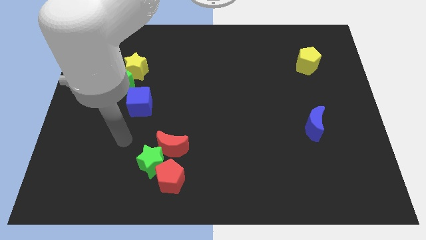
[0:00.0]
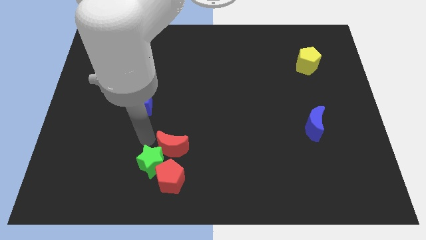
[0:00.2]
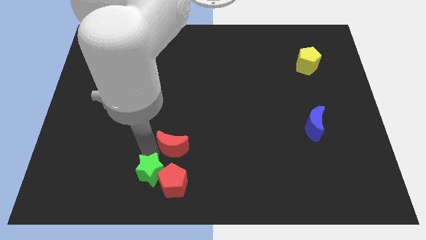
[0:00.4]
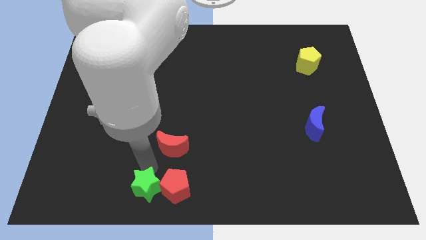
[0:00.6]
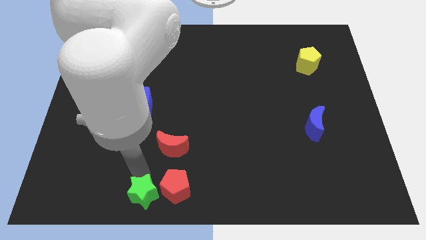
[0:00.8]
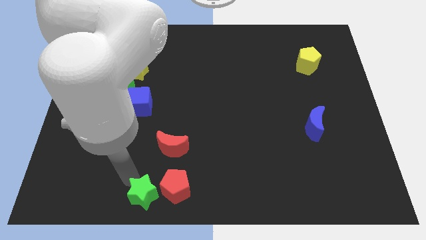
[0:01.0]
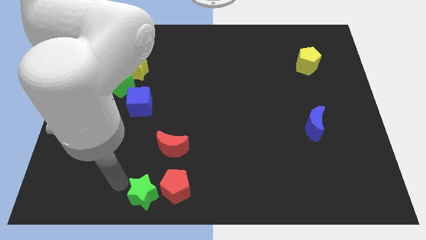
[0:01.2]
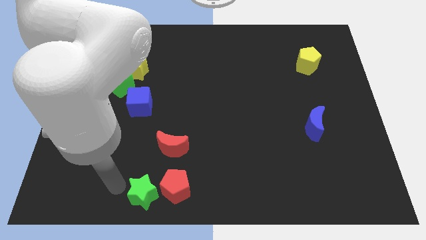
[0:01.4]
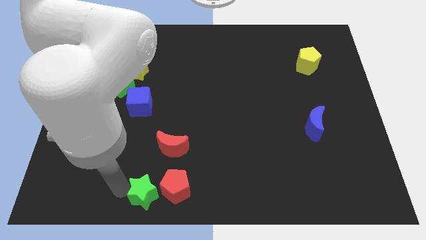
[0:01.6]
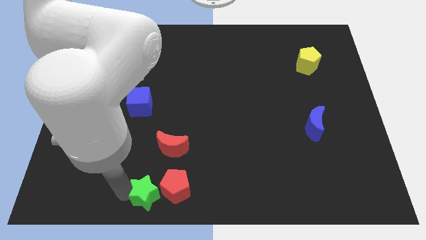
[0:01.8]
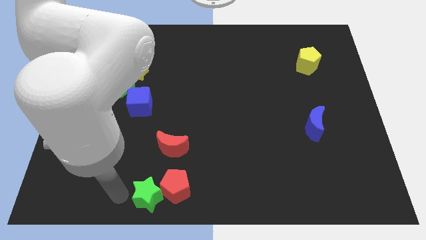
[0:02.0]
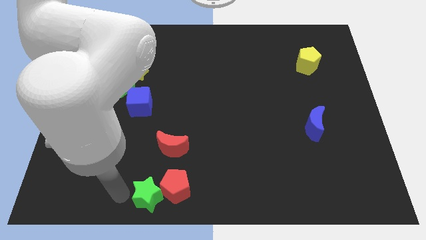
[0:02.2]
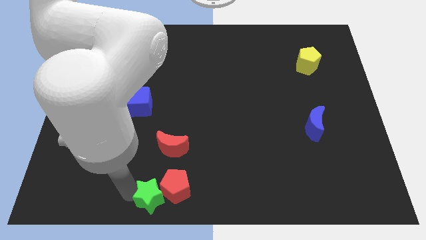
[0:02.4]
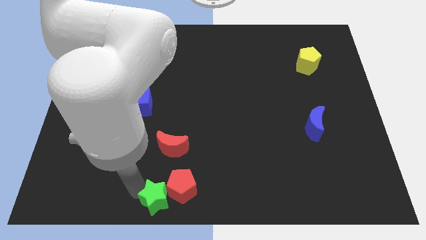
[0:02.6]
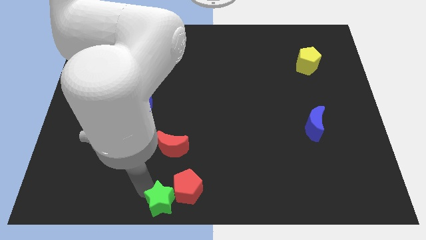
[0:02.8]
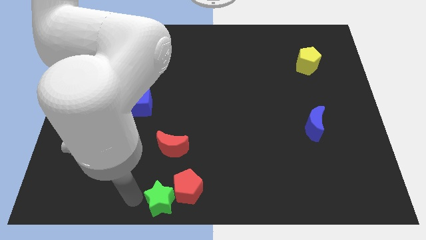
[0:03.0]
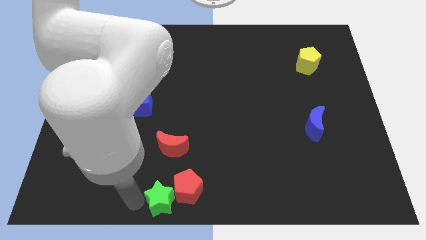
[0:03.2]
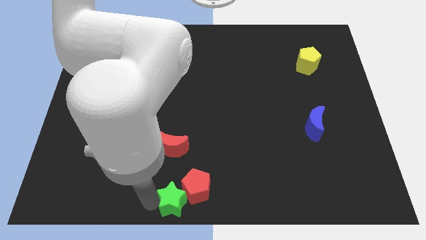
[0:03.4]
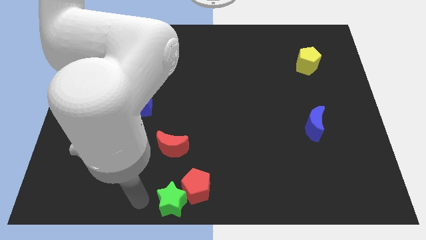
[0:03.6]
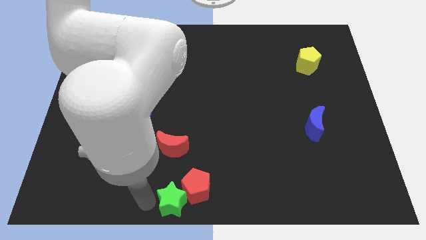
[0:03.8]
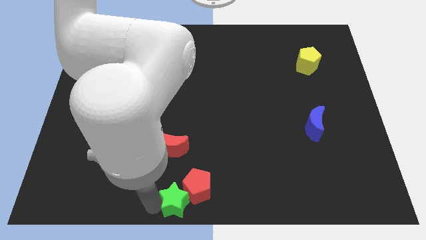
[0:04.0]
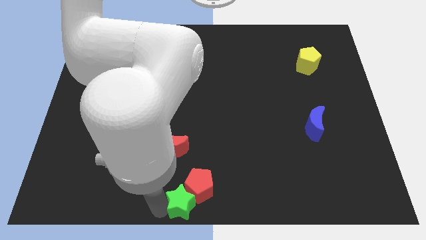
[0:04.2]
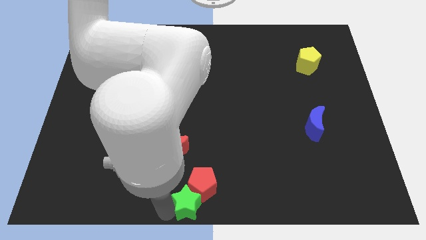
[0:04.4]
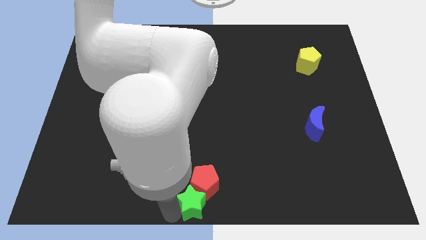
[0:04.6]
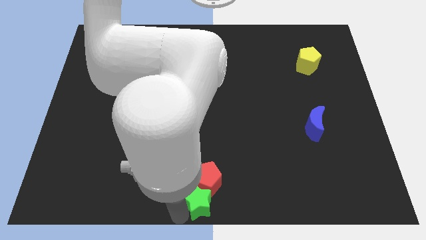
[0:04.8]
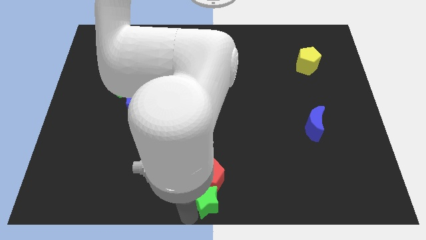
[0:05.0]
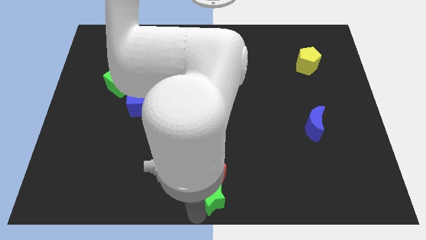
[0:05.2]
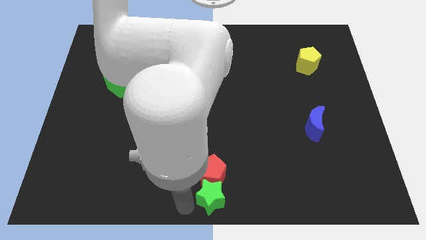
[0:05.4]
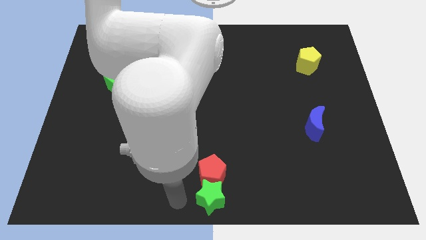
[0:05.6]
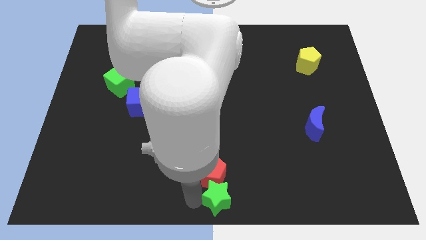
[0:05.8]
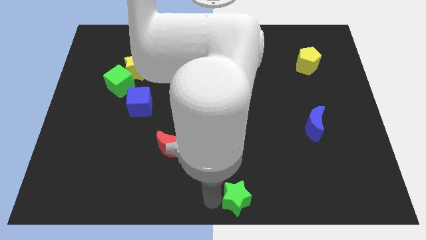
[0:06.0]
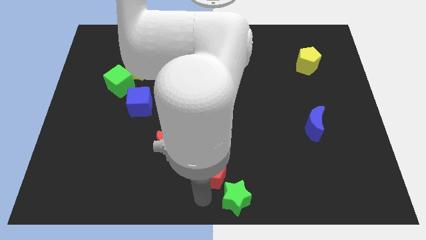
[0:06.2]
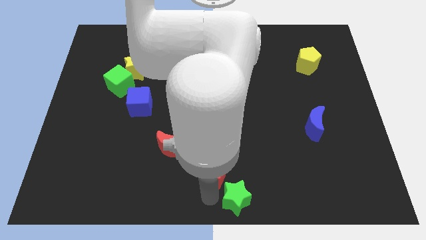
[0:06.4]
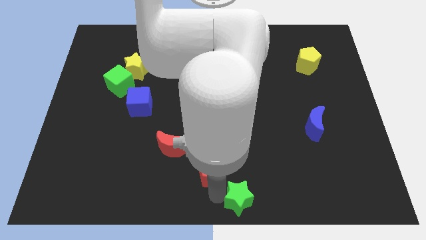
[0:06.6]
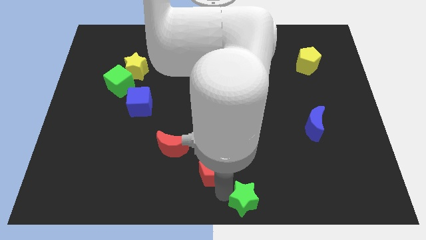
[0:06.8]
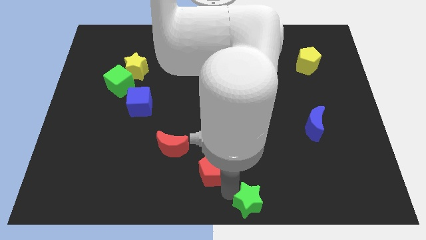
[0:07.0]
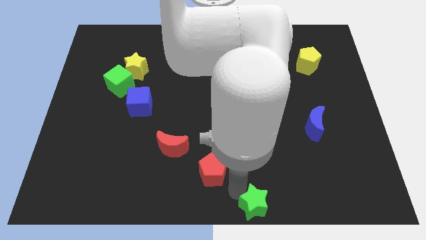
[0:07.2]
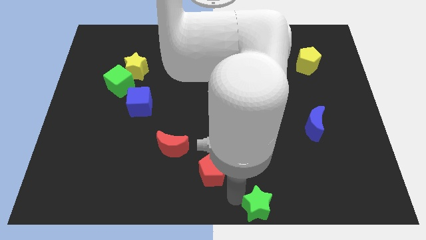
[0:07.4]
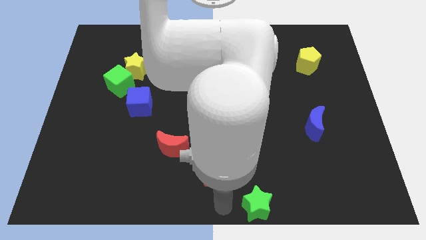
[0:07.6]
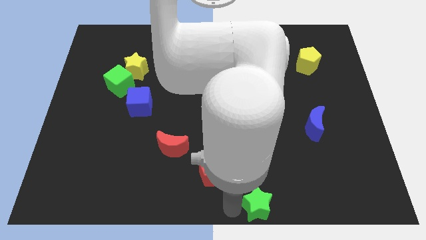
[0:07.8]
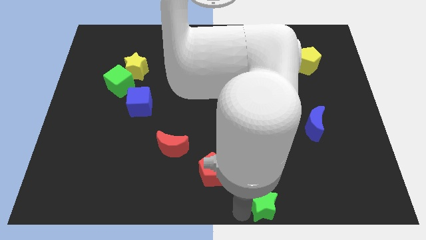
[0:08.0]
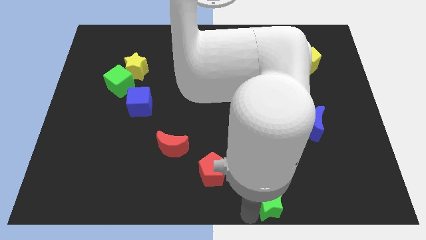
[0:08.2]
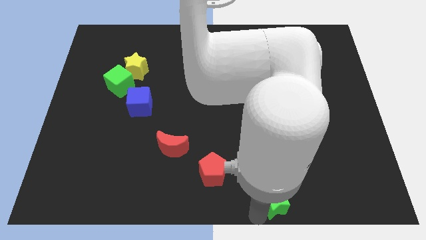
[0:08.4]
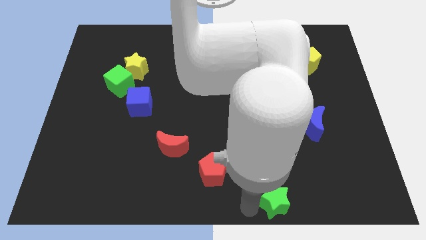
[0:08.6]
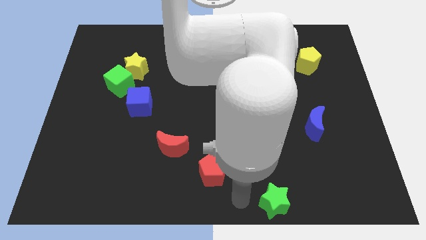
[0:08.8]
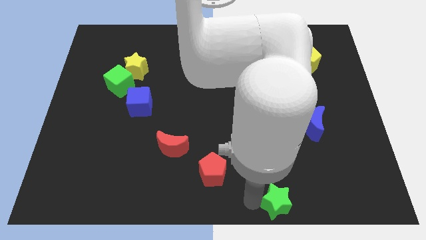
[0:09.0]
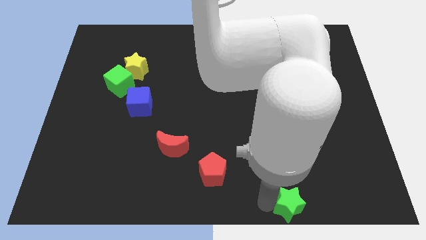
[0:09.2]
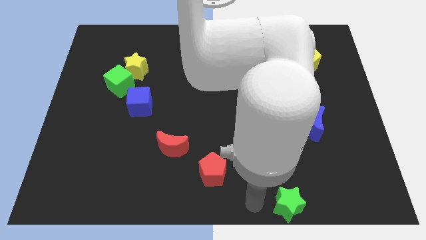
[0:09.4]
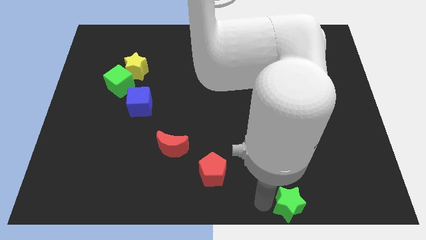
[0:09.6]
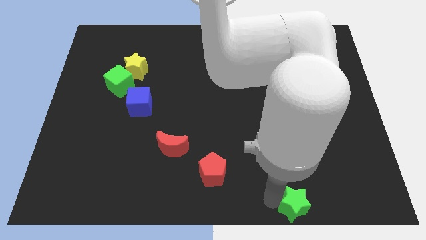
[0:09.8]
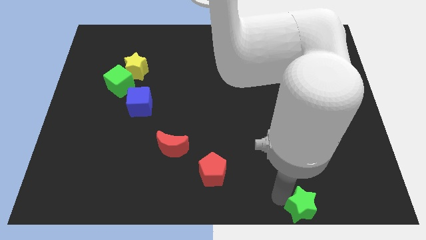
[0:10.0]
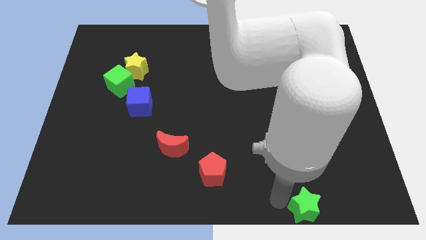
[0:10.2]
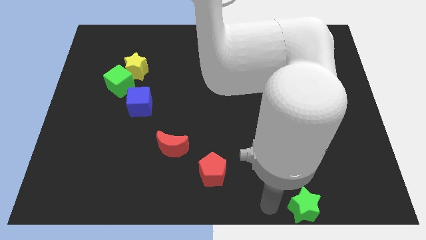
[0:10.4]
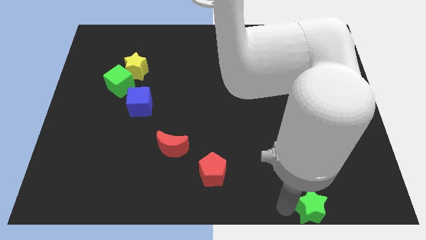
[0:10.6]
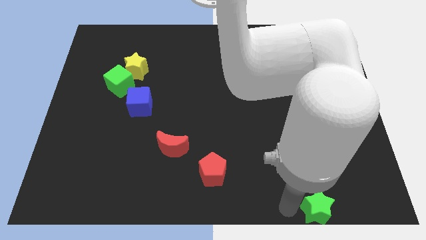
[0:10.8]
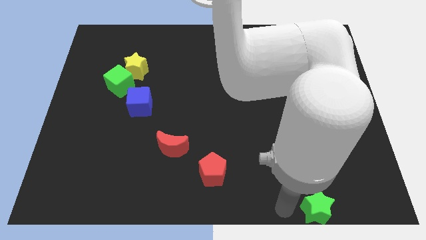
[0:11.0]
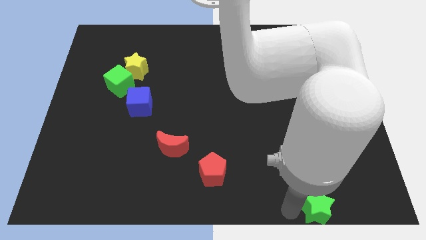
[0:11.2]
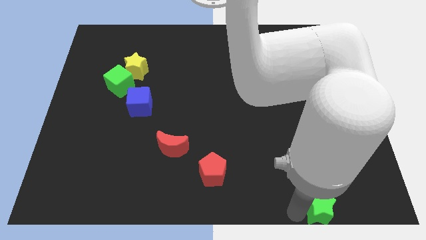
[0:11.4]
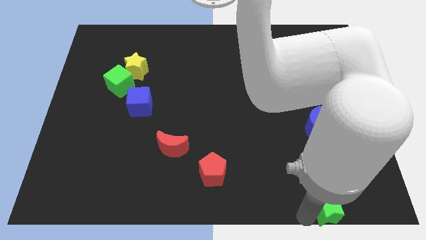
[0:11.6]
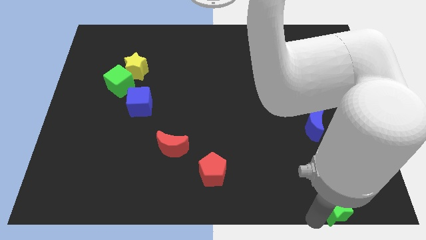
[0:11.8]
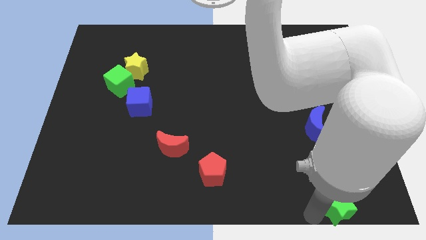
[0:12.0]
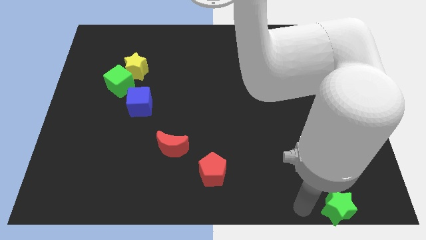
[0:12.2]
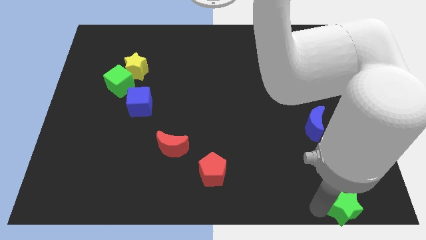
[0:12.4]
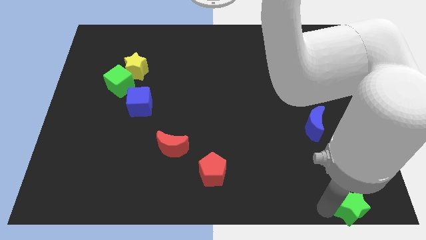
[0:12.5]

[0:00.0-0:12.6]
push the green star to the lower right corner
